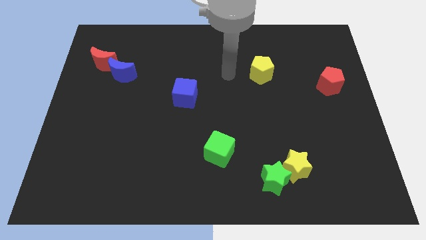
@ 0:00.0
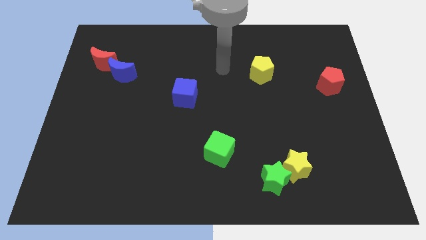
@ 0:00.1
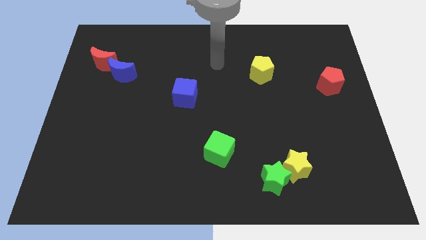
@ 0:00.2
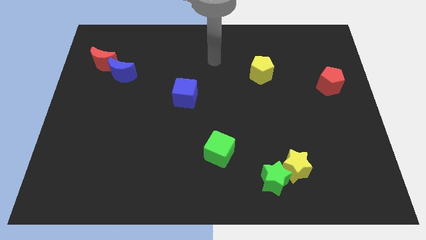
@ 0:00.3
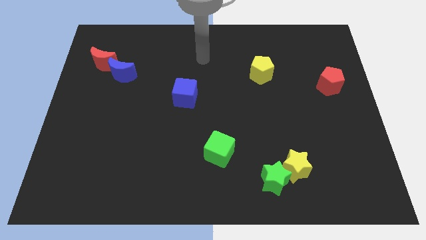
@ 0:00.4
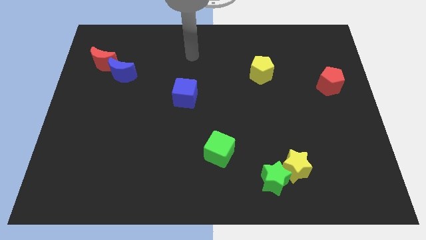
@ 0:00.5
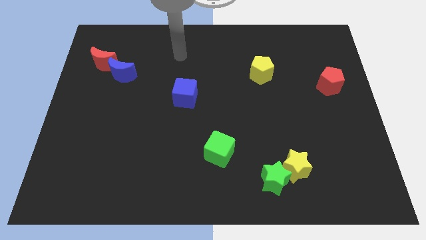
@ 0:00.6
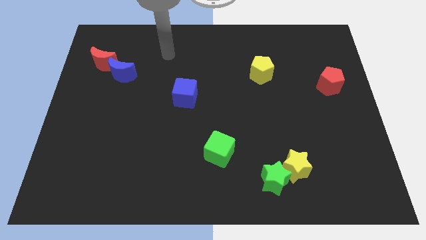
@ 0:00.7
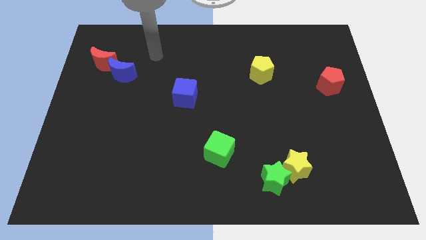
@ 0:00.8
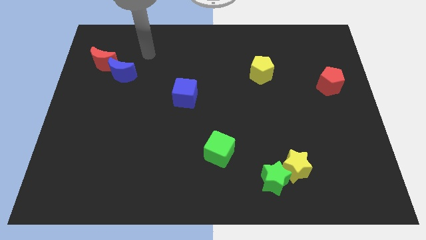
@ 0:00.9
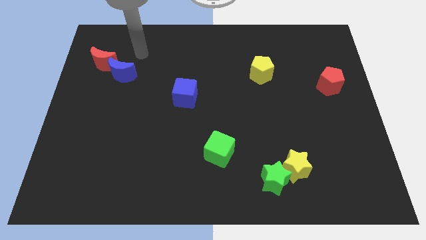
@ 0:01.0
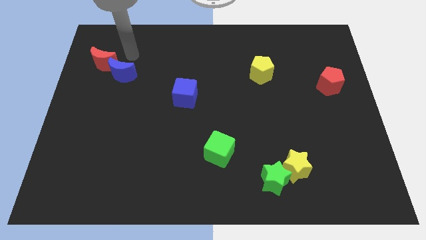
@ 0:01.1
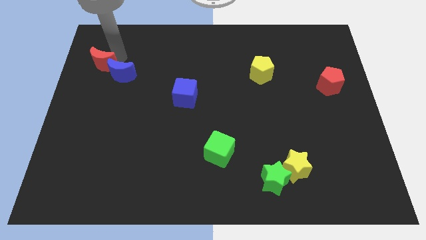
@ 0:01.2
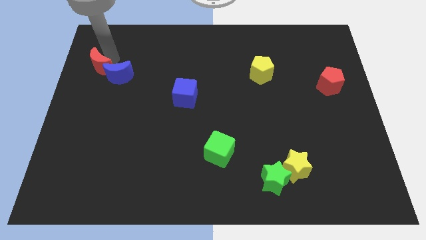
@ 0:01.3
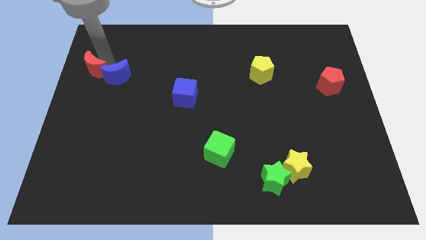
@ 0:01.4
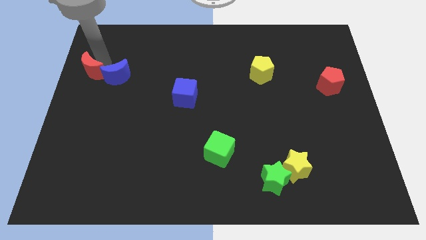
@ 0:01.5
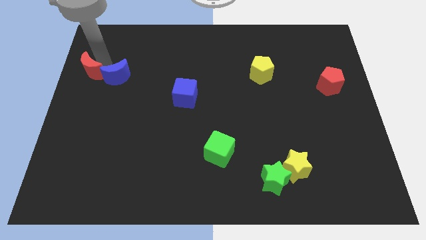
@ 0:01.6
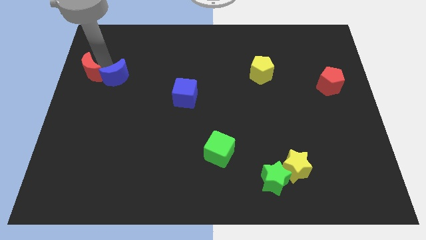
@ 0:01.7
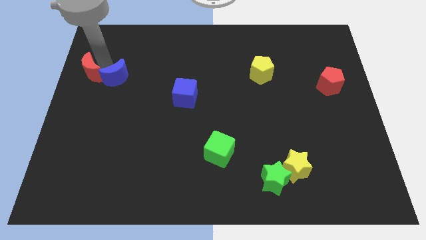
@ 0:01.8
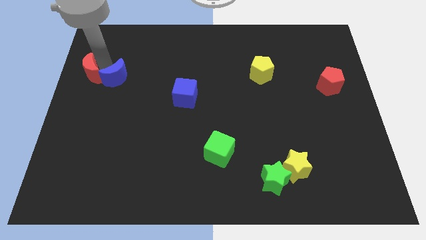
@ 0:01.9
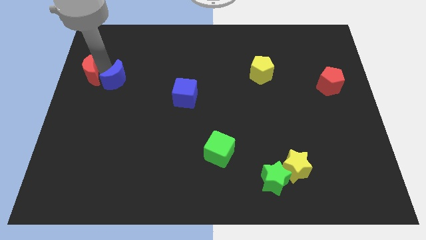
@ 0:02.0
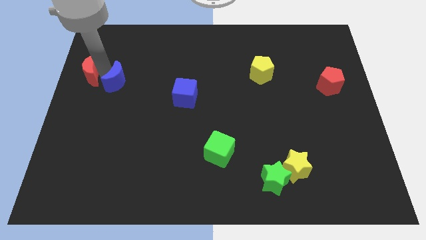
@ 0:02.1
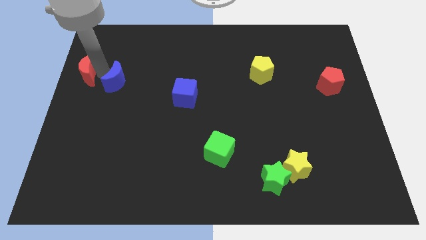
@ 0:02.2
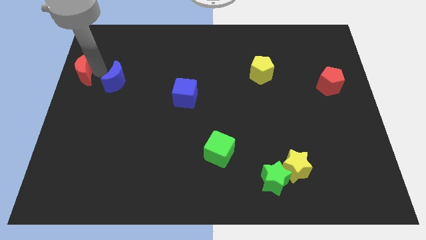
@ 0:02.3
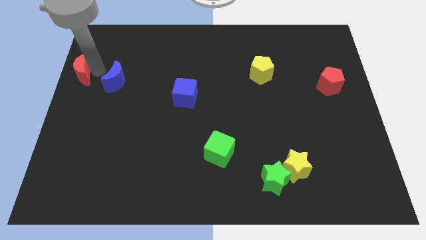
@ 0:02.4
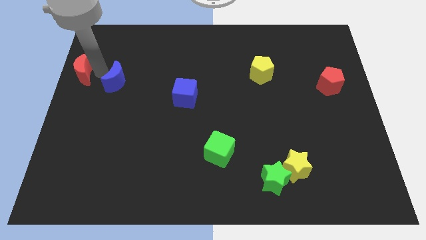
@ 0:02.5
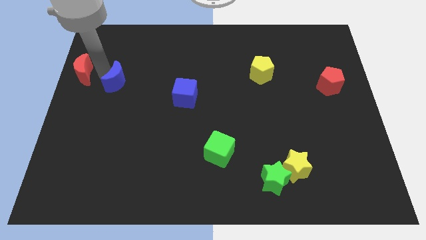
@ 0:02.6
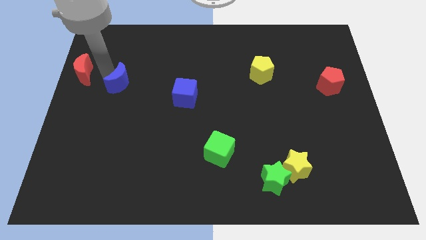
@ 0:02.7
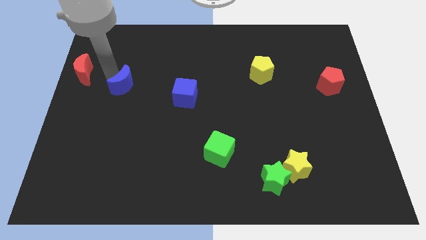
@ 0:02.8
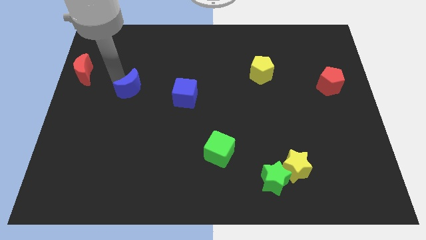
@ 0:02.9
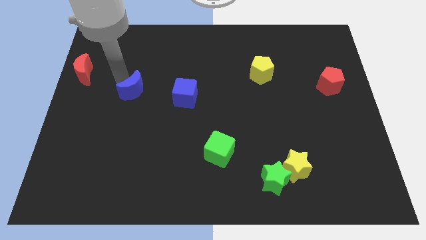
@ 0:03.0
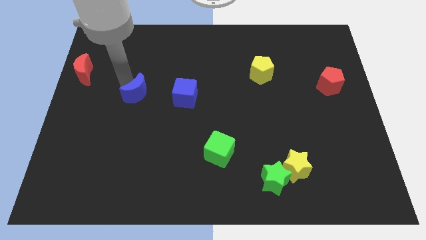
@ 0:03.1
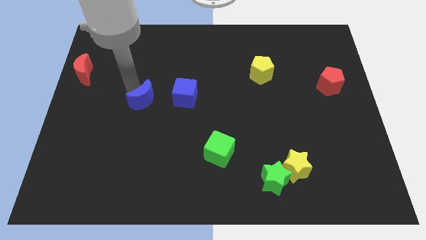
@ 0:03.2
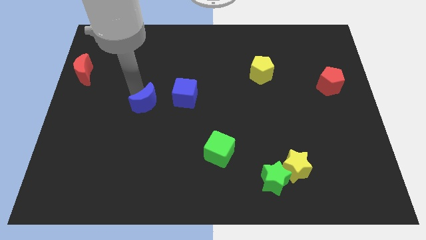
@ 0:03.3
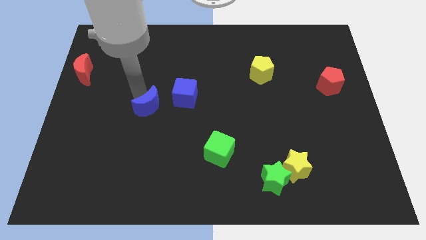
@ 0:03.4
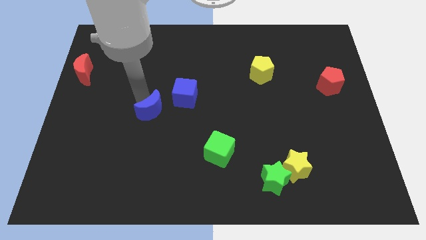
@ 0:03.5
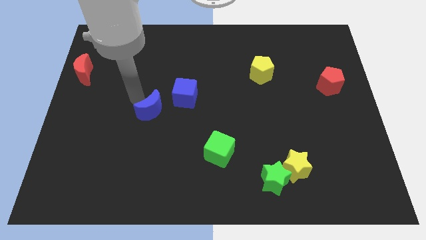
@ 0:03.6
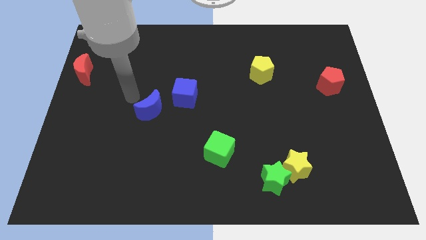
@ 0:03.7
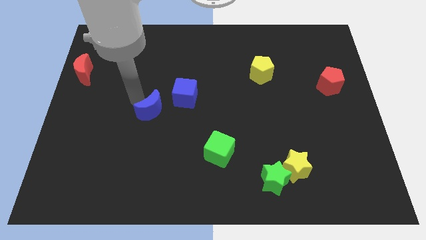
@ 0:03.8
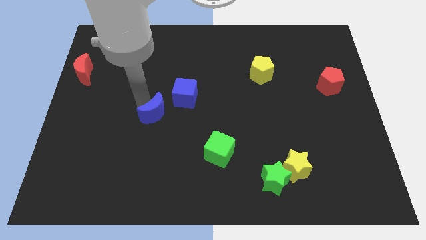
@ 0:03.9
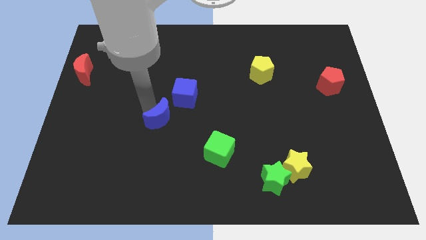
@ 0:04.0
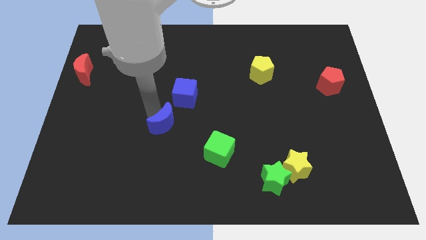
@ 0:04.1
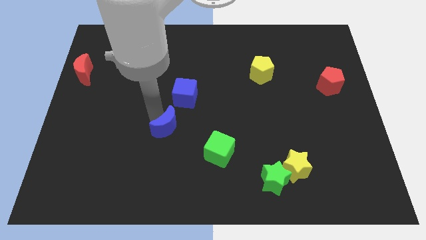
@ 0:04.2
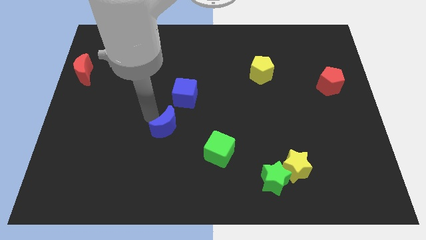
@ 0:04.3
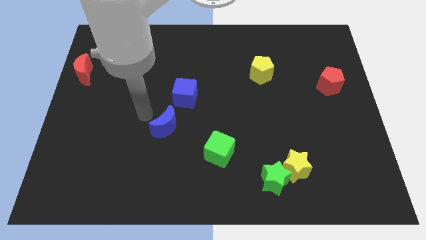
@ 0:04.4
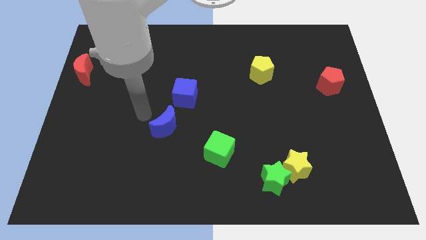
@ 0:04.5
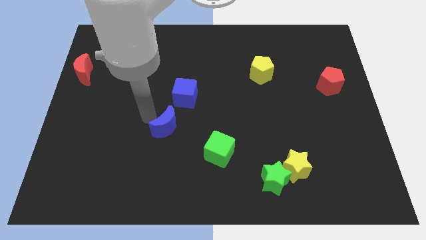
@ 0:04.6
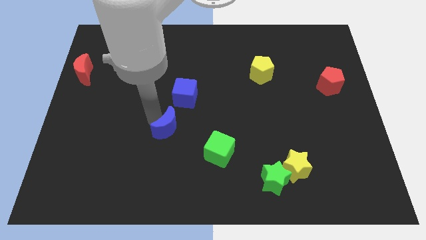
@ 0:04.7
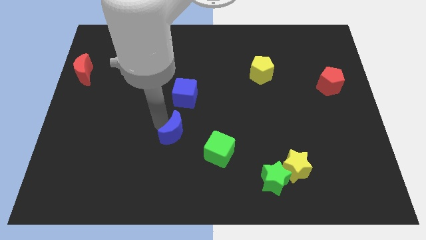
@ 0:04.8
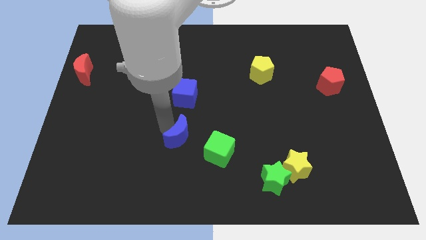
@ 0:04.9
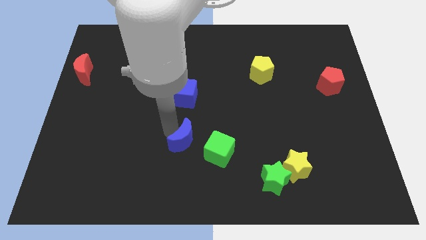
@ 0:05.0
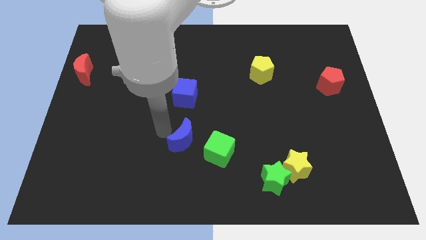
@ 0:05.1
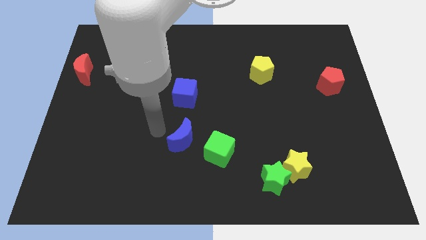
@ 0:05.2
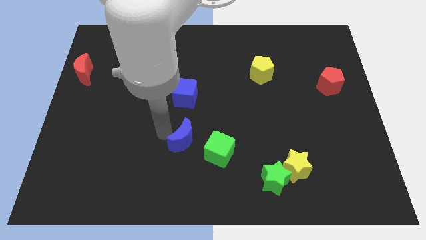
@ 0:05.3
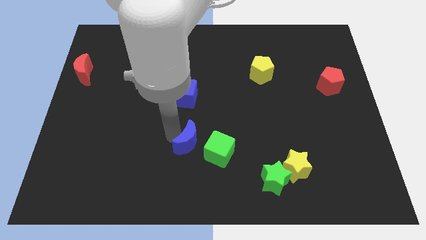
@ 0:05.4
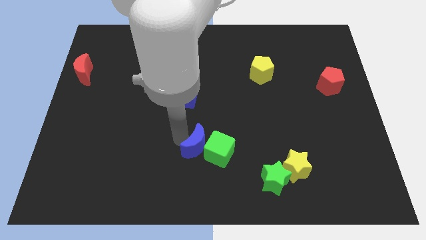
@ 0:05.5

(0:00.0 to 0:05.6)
slide the blue moon towards the green cube

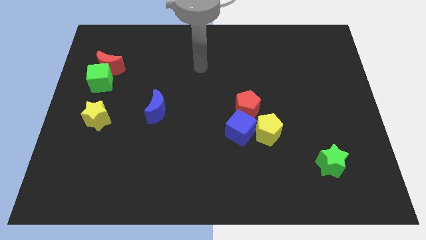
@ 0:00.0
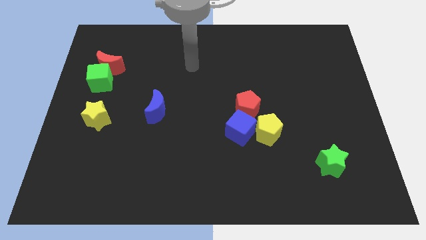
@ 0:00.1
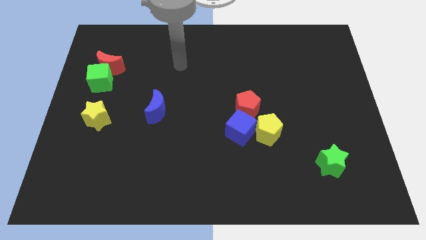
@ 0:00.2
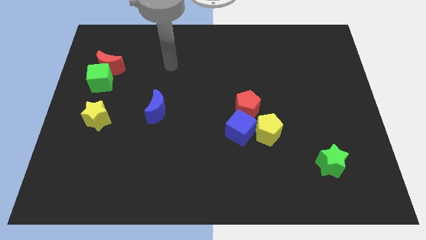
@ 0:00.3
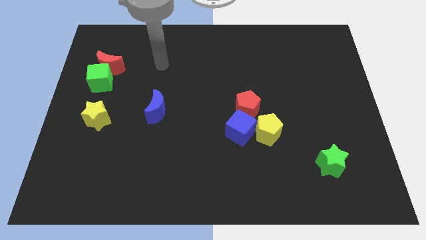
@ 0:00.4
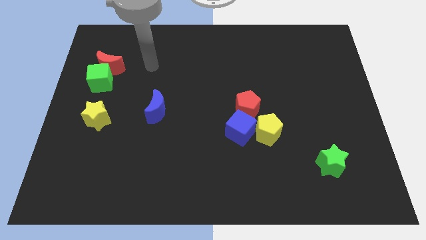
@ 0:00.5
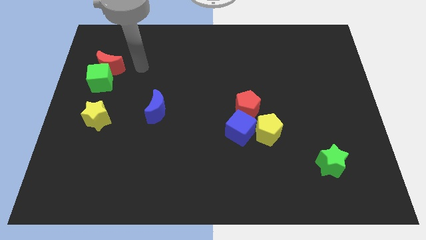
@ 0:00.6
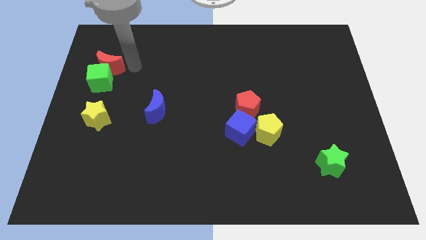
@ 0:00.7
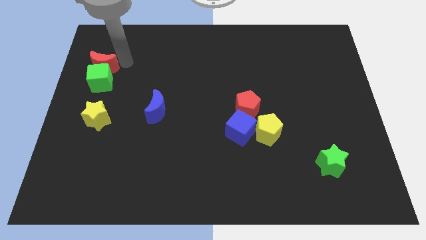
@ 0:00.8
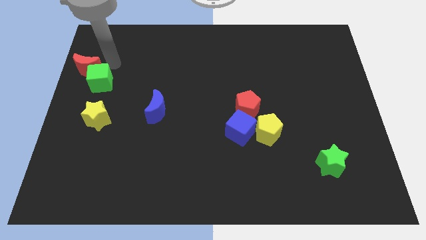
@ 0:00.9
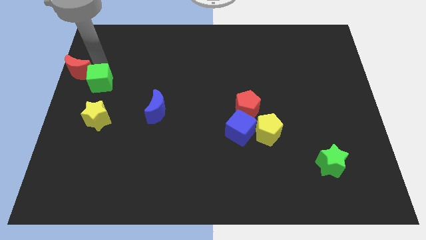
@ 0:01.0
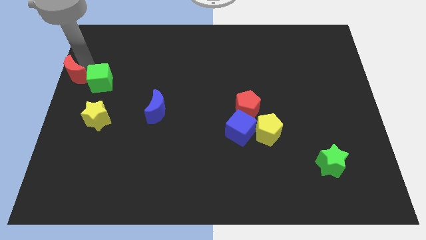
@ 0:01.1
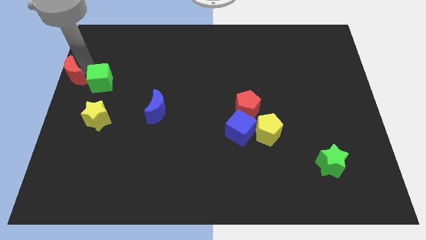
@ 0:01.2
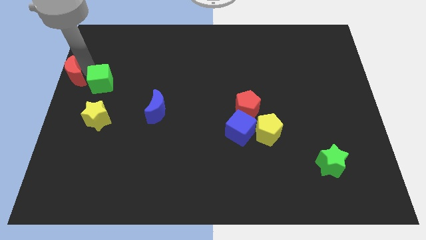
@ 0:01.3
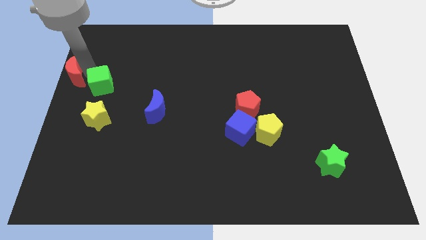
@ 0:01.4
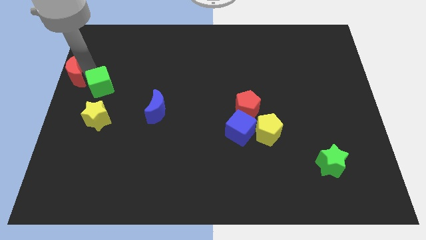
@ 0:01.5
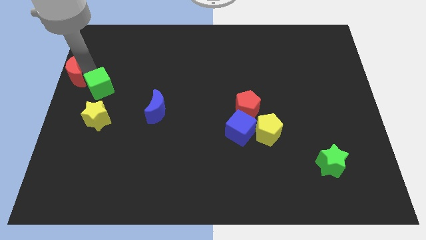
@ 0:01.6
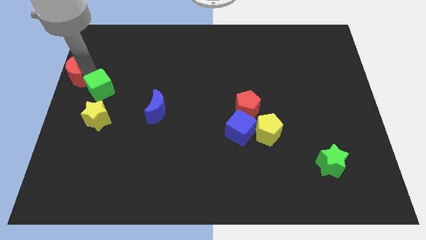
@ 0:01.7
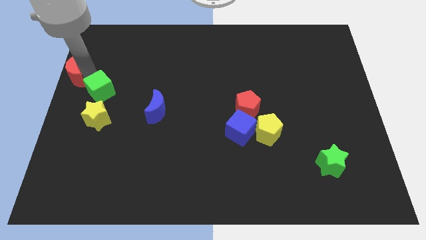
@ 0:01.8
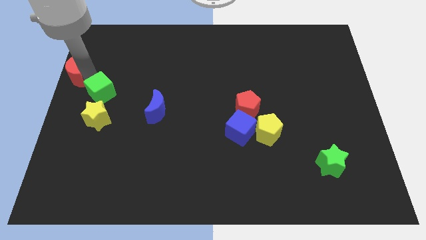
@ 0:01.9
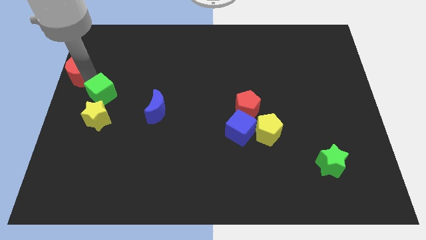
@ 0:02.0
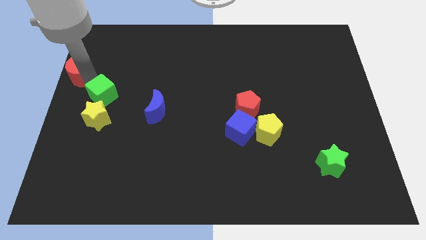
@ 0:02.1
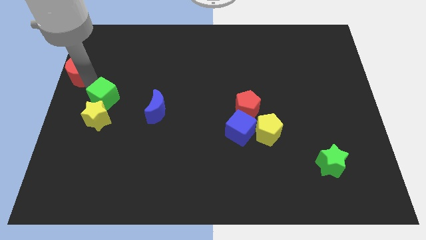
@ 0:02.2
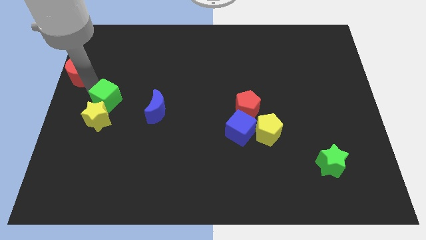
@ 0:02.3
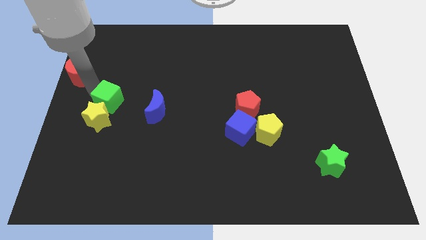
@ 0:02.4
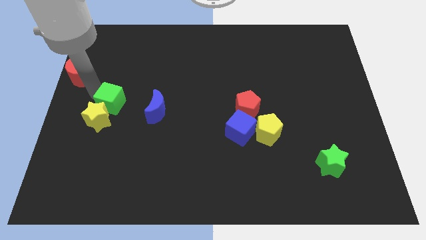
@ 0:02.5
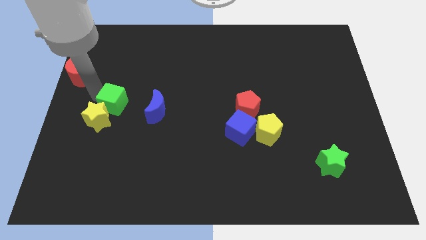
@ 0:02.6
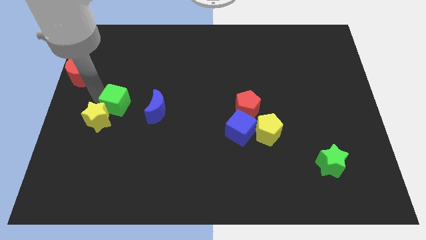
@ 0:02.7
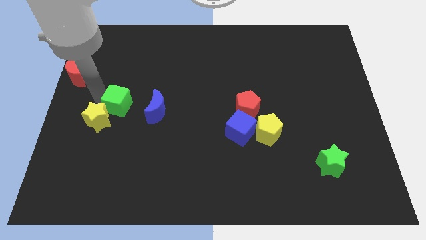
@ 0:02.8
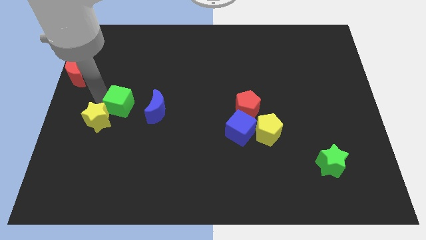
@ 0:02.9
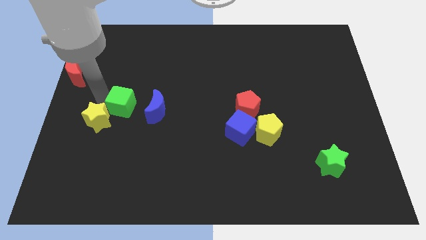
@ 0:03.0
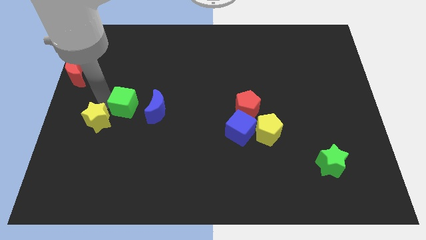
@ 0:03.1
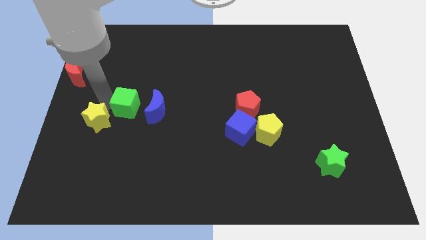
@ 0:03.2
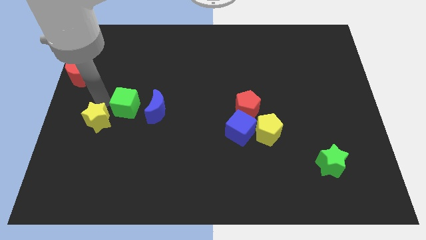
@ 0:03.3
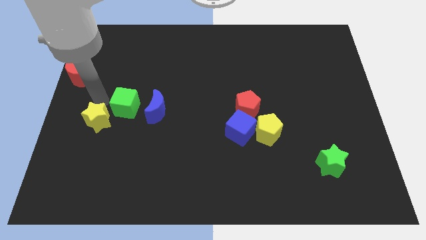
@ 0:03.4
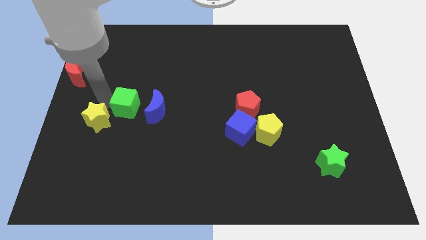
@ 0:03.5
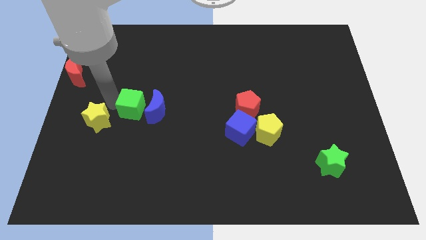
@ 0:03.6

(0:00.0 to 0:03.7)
slide the green cube close to the blue moon
